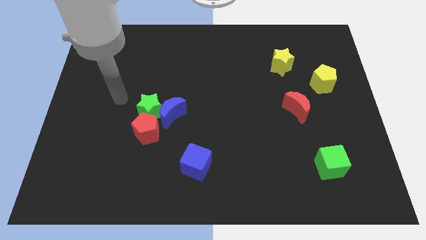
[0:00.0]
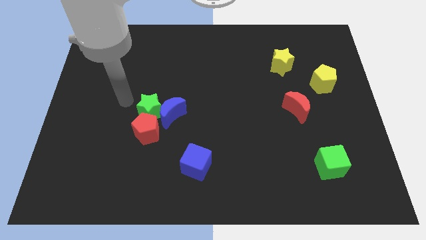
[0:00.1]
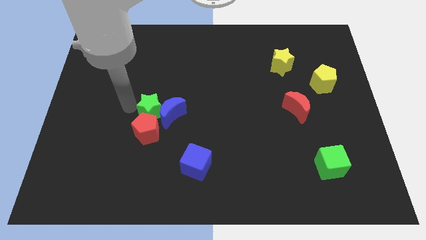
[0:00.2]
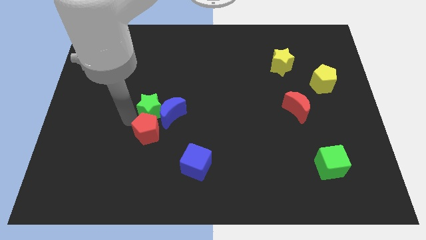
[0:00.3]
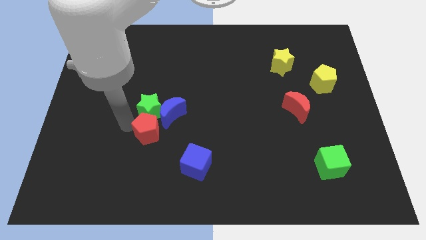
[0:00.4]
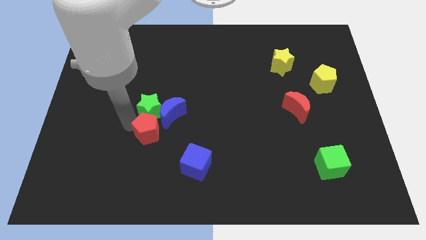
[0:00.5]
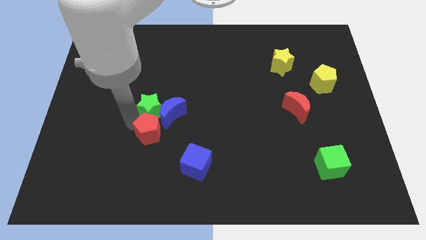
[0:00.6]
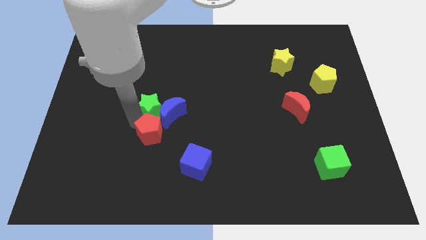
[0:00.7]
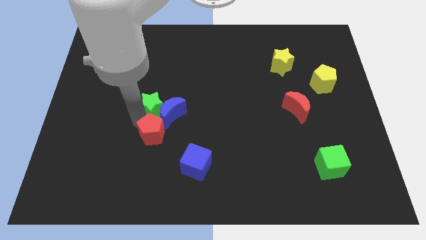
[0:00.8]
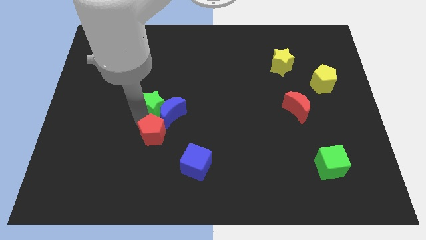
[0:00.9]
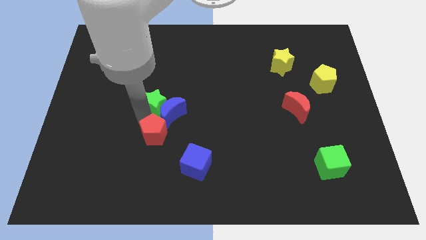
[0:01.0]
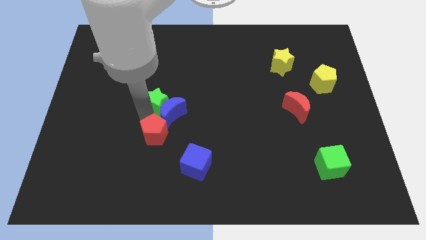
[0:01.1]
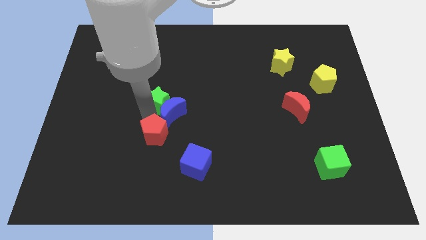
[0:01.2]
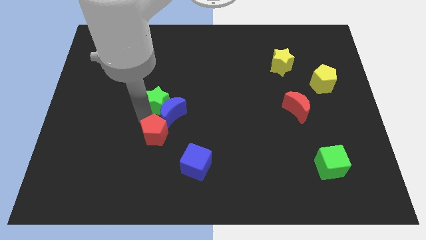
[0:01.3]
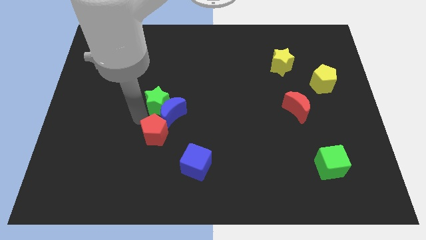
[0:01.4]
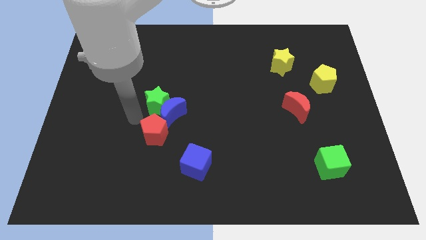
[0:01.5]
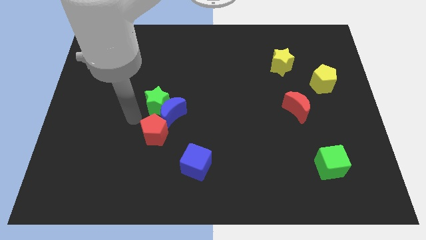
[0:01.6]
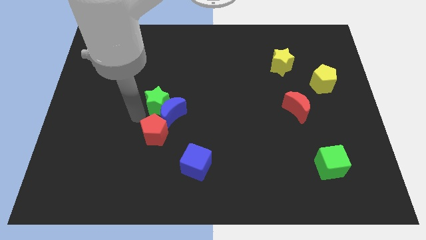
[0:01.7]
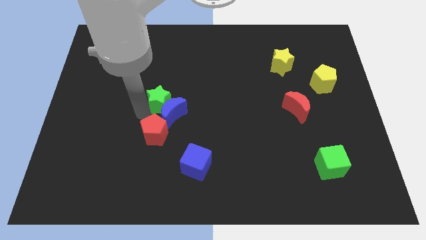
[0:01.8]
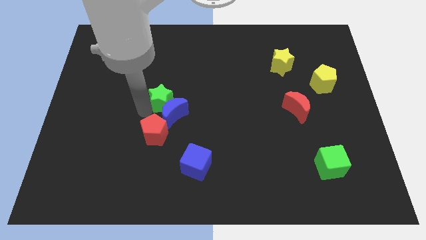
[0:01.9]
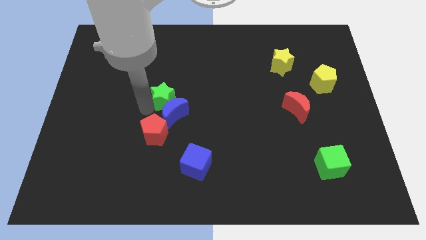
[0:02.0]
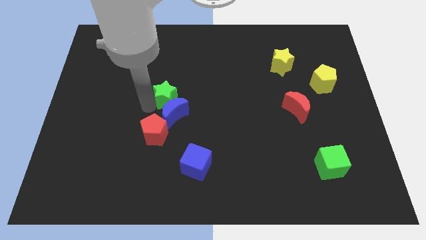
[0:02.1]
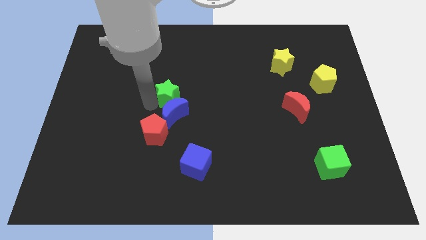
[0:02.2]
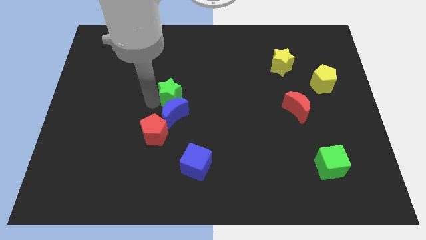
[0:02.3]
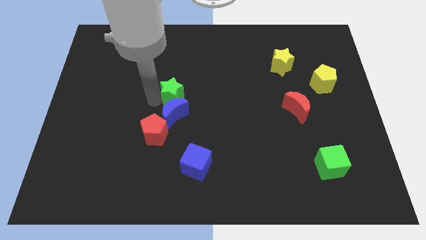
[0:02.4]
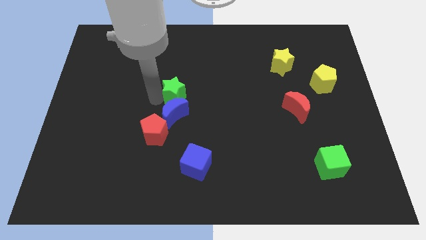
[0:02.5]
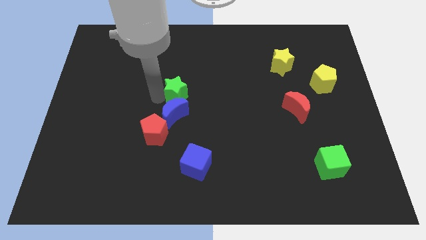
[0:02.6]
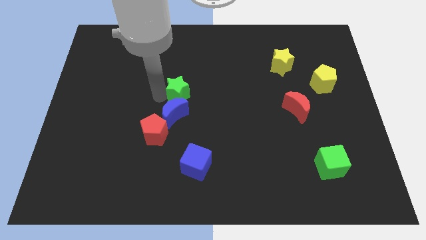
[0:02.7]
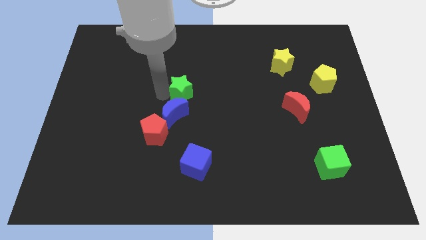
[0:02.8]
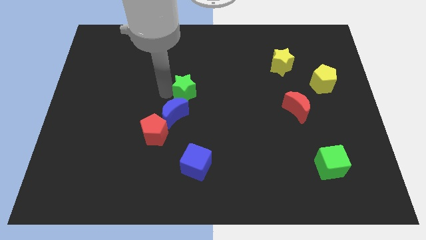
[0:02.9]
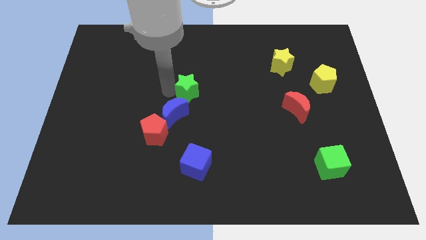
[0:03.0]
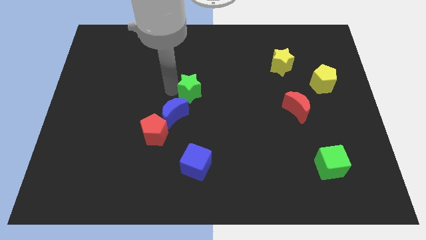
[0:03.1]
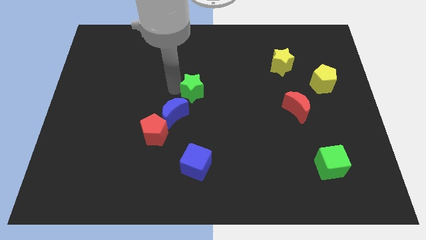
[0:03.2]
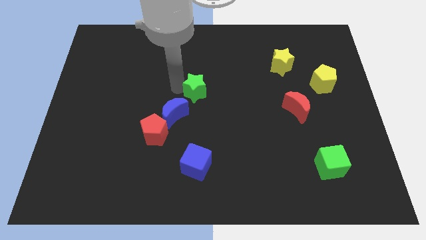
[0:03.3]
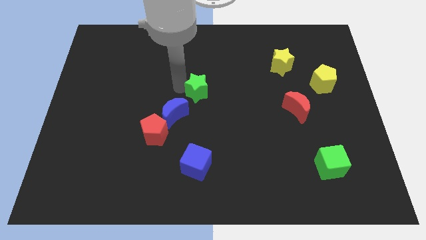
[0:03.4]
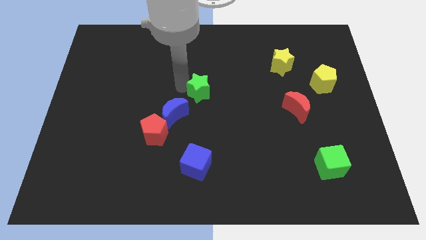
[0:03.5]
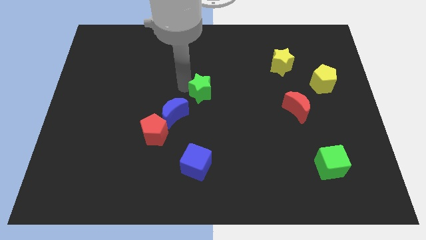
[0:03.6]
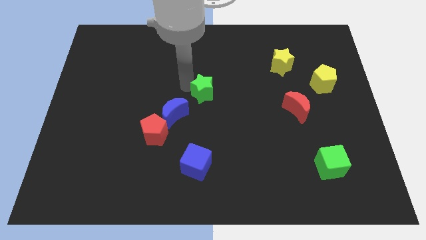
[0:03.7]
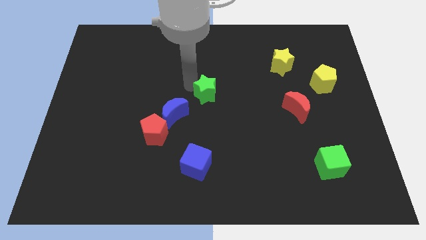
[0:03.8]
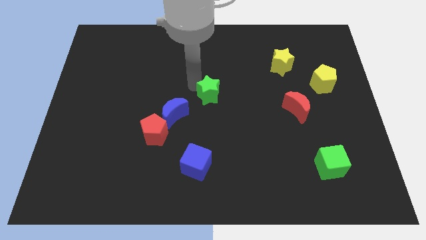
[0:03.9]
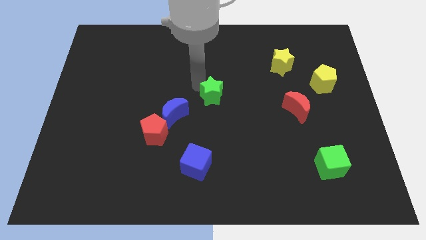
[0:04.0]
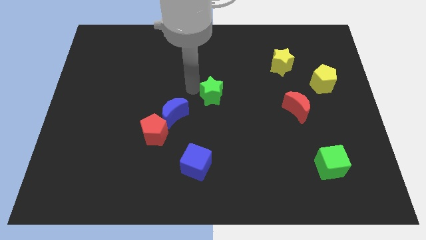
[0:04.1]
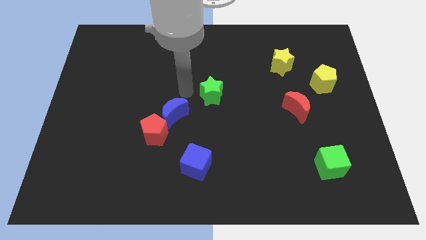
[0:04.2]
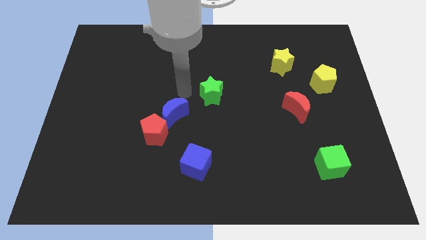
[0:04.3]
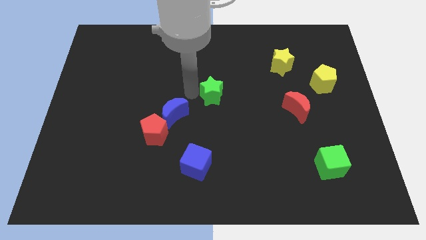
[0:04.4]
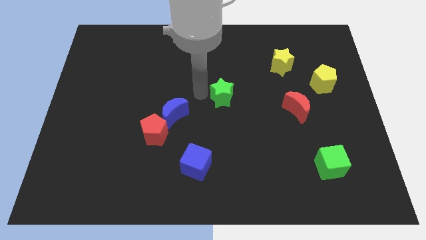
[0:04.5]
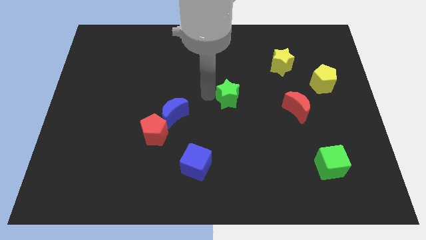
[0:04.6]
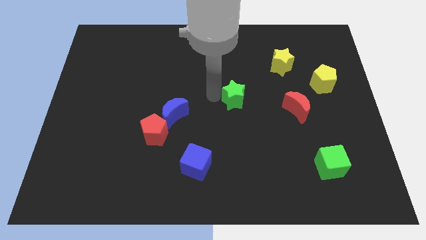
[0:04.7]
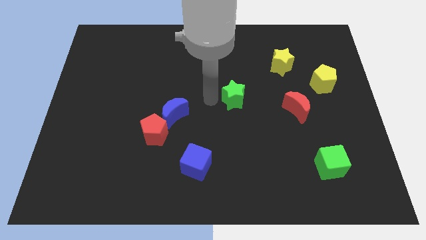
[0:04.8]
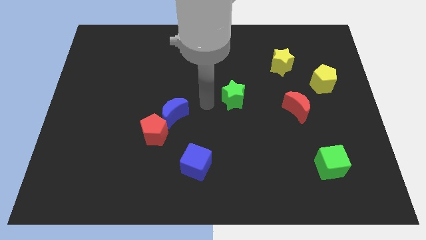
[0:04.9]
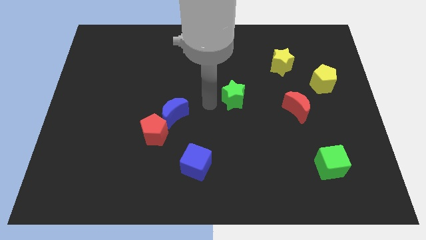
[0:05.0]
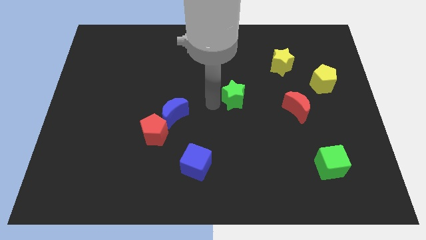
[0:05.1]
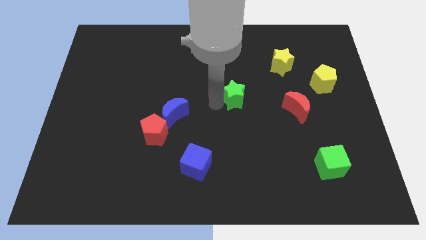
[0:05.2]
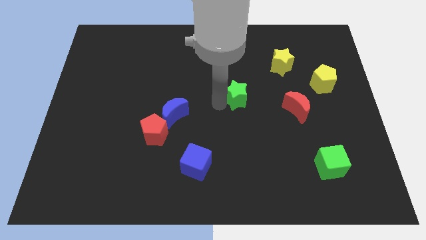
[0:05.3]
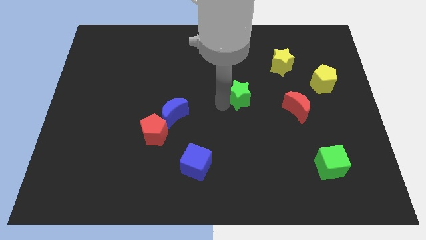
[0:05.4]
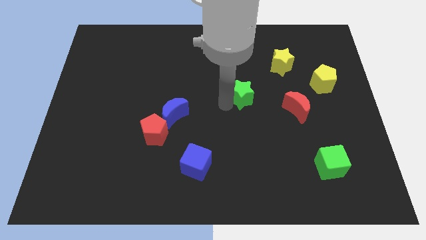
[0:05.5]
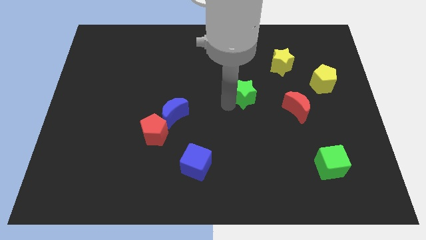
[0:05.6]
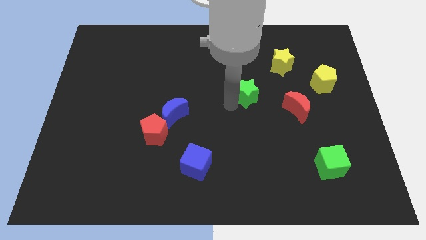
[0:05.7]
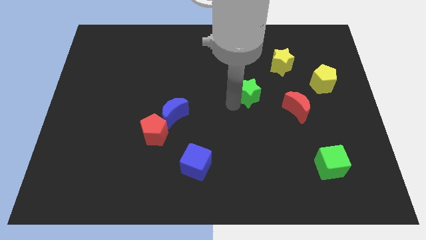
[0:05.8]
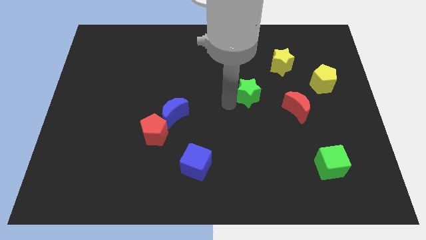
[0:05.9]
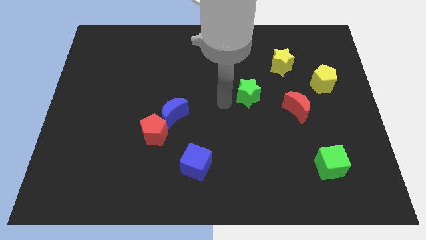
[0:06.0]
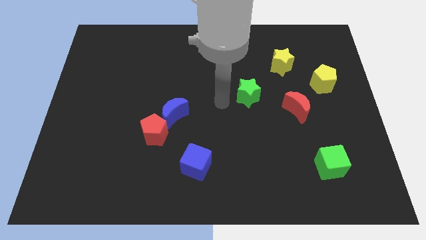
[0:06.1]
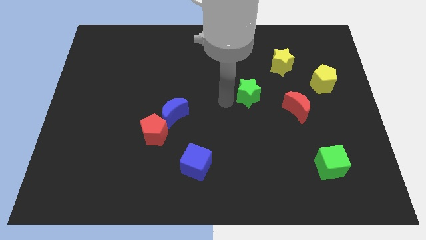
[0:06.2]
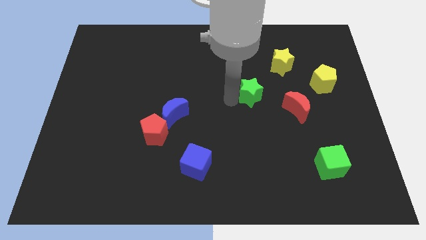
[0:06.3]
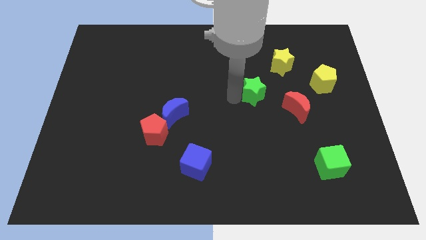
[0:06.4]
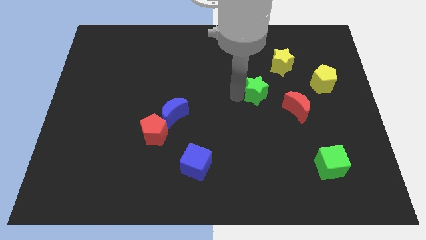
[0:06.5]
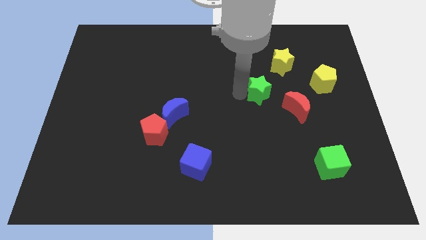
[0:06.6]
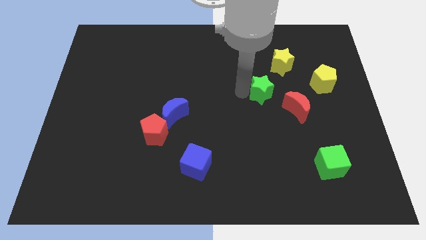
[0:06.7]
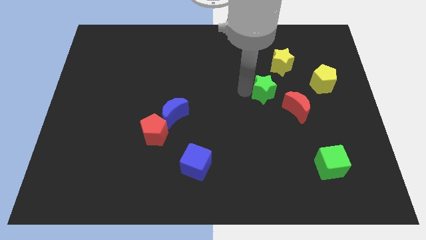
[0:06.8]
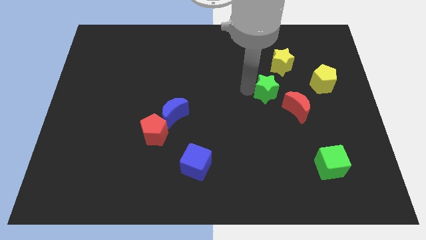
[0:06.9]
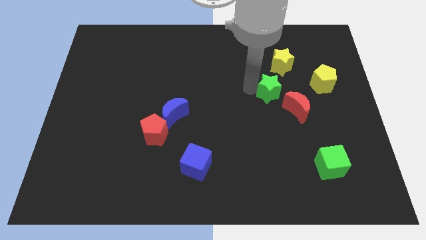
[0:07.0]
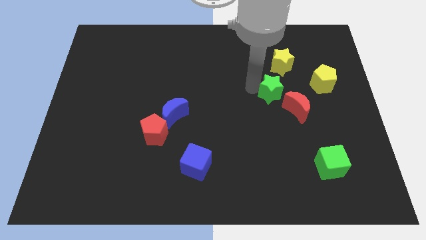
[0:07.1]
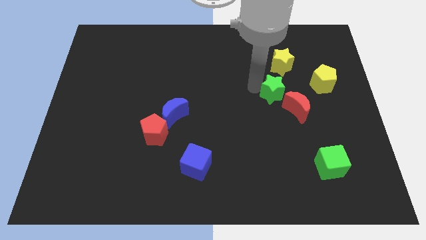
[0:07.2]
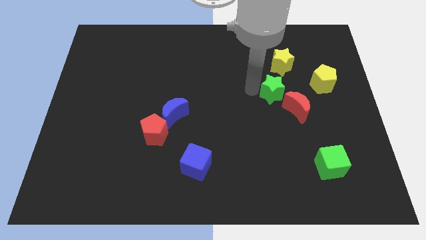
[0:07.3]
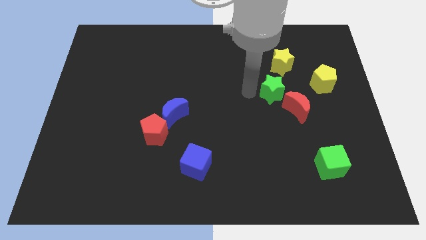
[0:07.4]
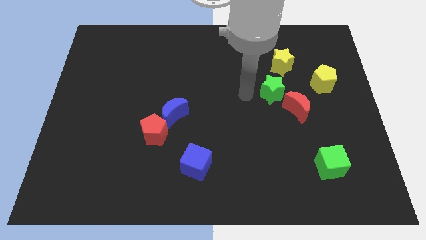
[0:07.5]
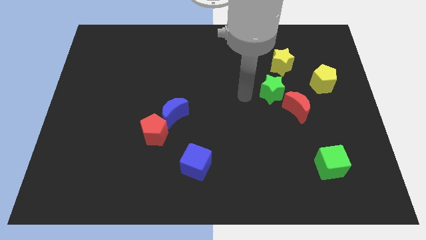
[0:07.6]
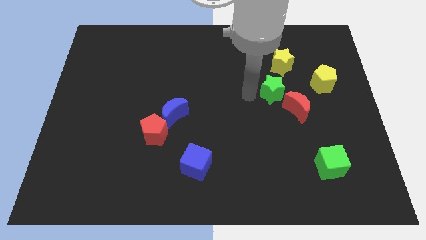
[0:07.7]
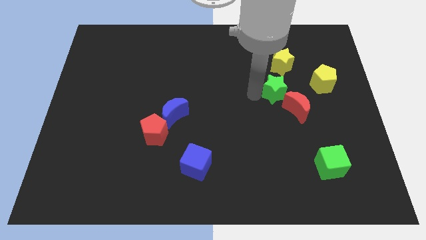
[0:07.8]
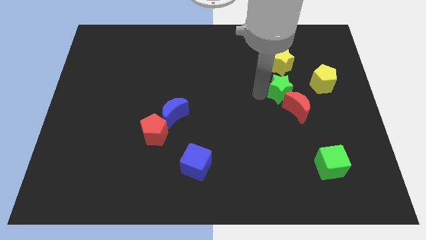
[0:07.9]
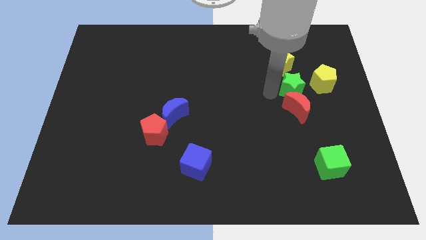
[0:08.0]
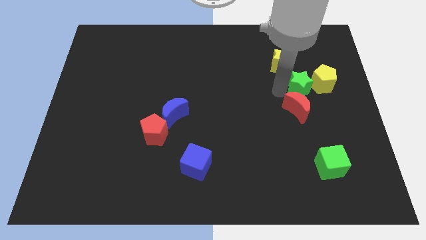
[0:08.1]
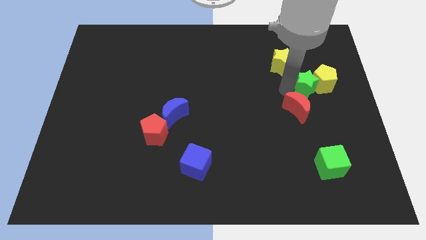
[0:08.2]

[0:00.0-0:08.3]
move the green star next to the yellow pentagon
